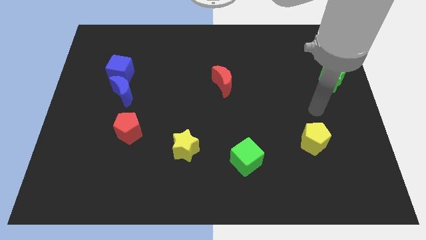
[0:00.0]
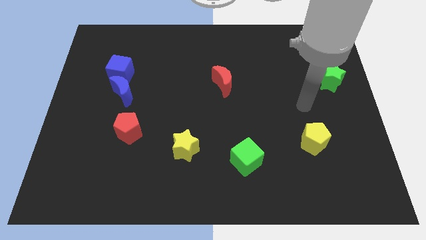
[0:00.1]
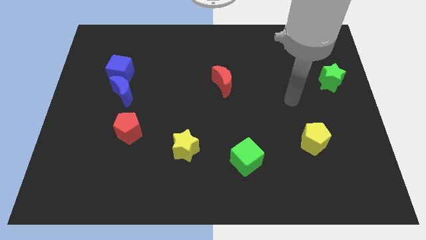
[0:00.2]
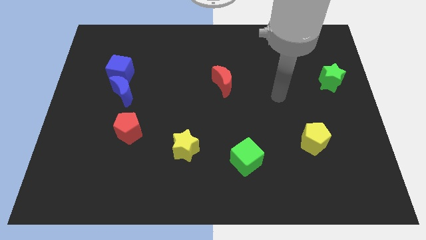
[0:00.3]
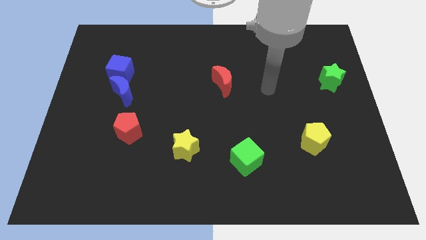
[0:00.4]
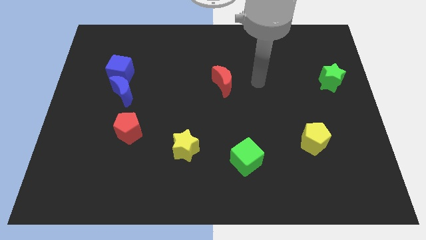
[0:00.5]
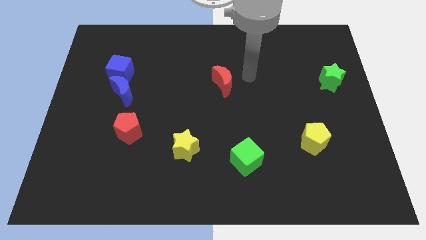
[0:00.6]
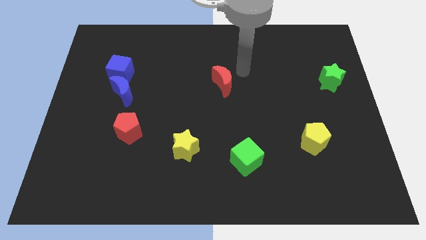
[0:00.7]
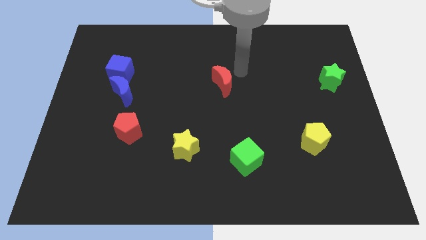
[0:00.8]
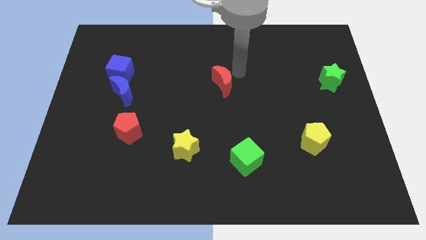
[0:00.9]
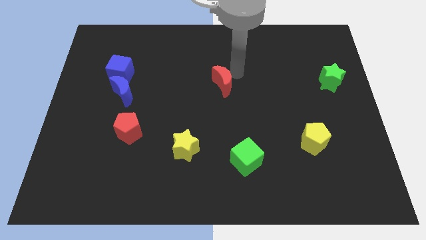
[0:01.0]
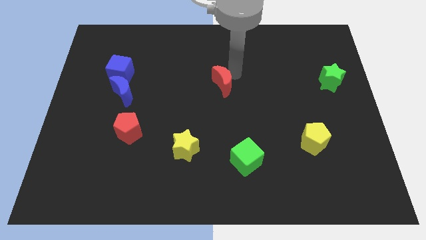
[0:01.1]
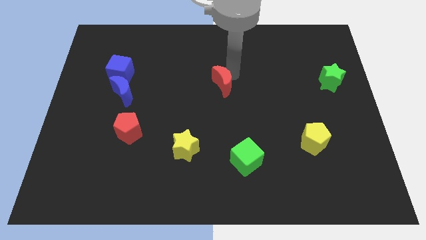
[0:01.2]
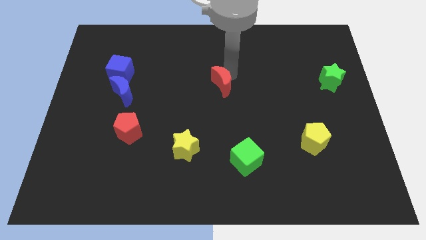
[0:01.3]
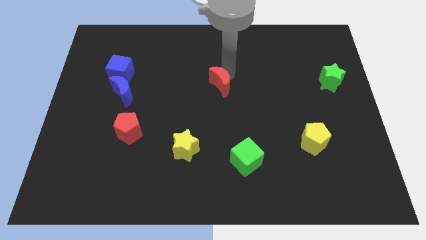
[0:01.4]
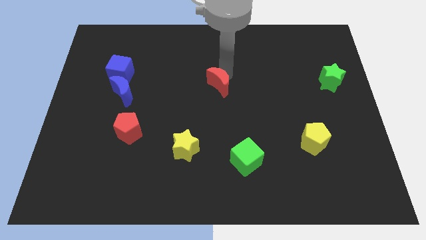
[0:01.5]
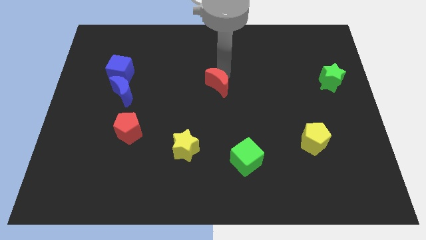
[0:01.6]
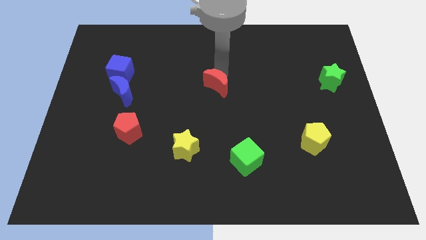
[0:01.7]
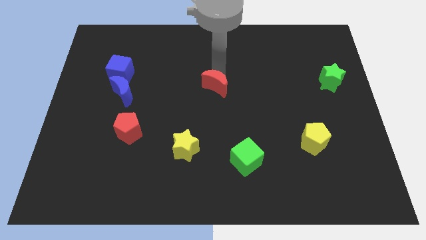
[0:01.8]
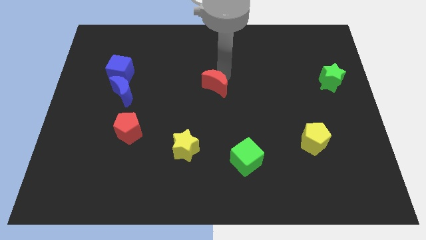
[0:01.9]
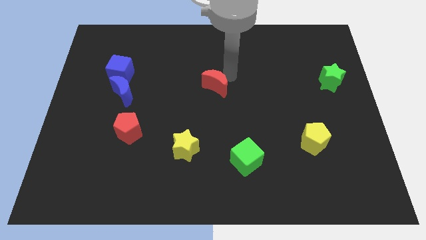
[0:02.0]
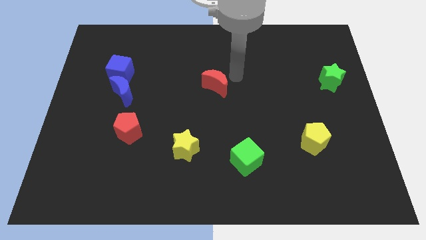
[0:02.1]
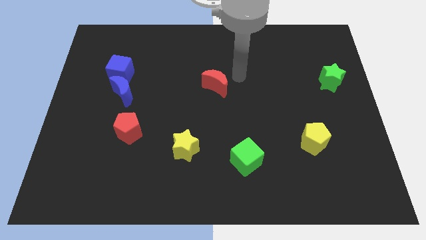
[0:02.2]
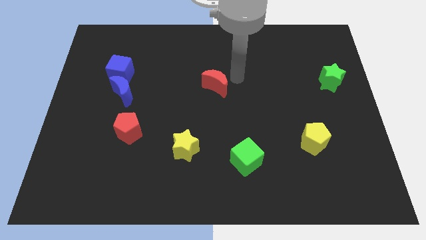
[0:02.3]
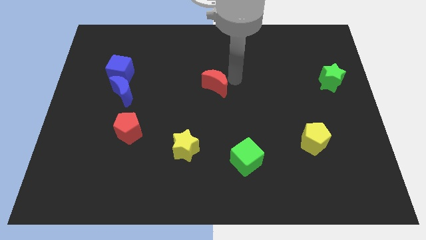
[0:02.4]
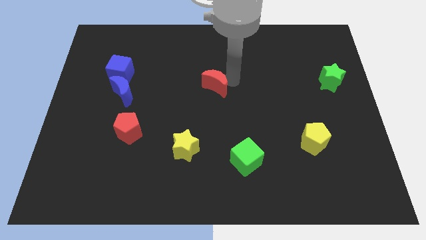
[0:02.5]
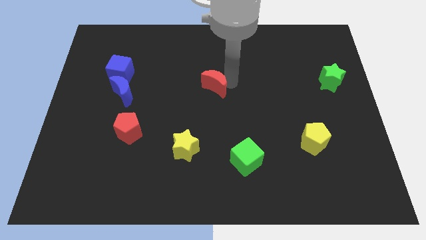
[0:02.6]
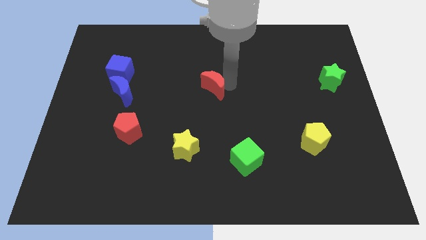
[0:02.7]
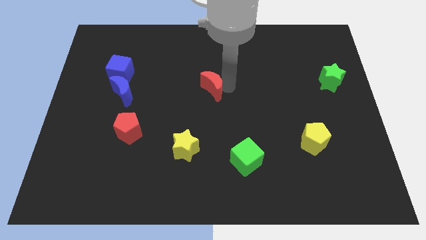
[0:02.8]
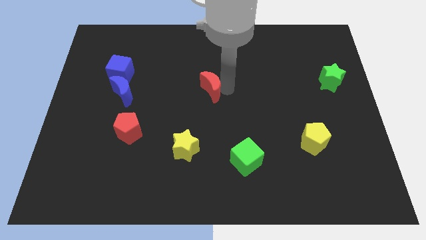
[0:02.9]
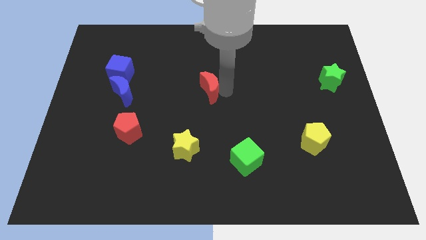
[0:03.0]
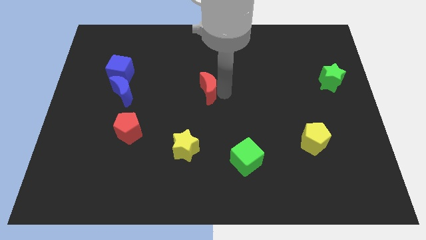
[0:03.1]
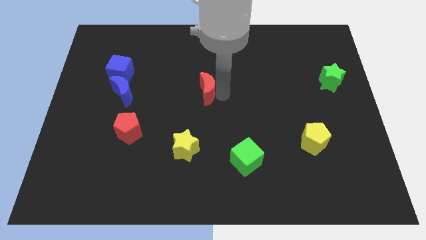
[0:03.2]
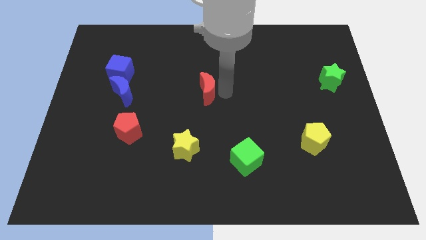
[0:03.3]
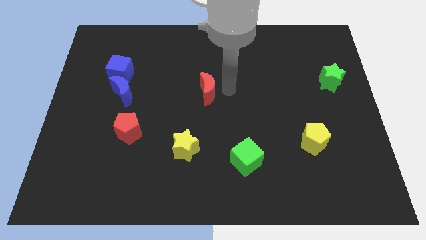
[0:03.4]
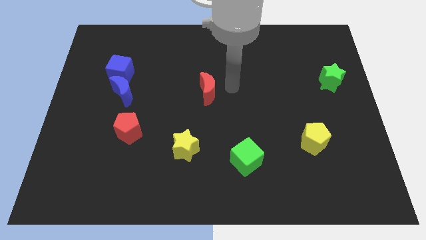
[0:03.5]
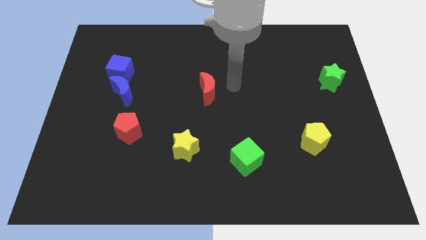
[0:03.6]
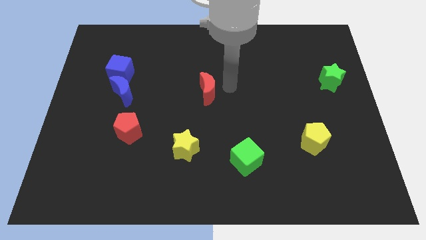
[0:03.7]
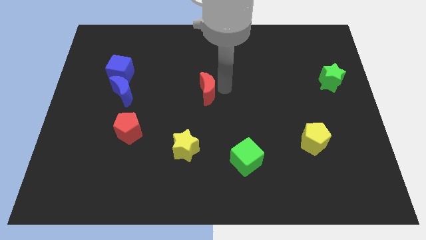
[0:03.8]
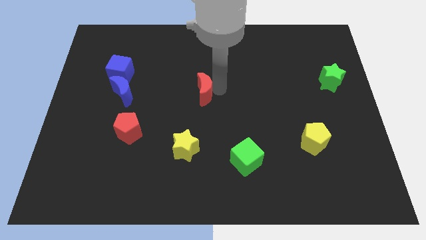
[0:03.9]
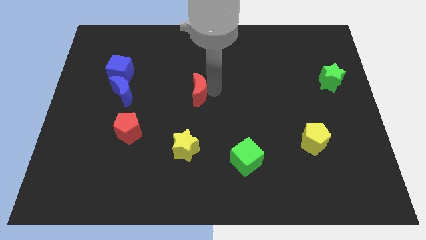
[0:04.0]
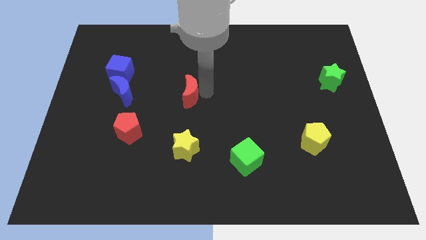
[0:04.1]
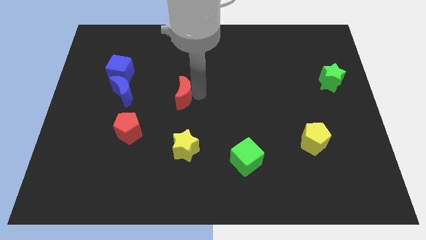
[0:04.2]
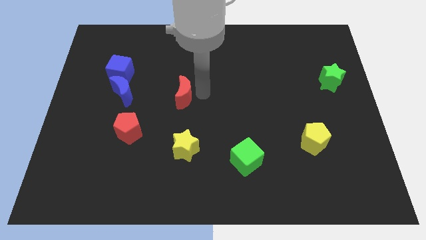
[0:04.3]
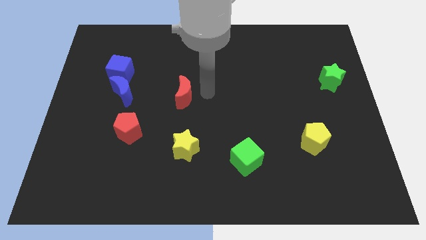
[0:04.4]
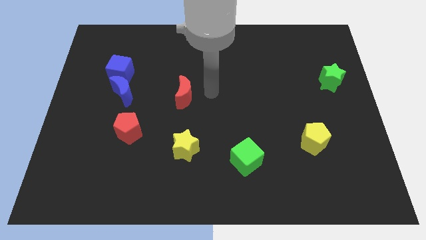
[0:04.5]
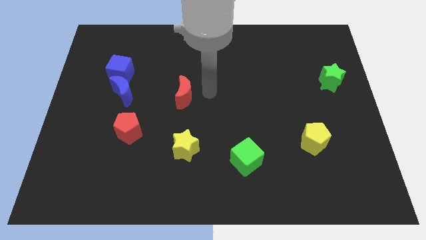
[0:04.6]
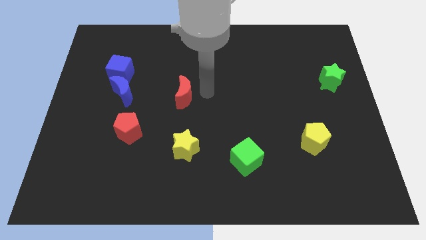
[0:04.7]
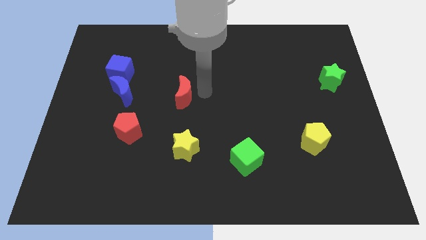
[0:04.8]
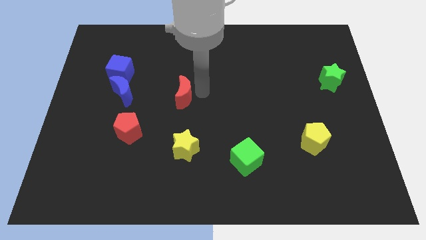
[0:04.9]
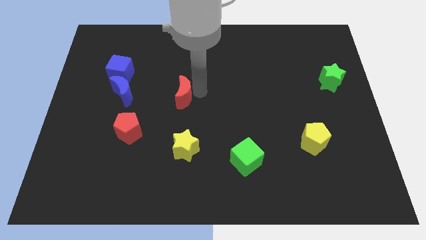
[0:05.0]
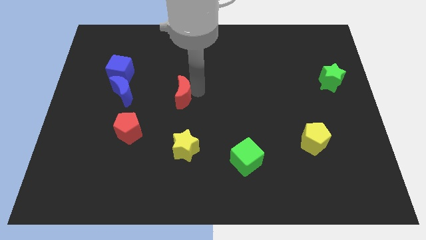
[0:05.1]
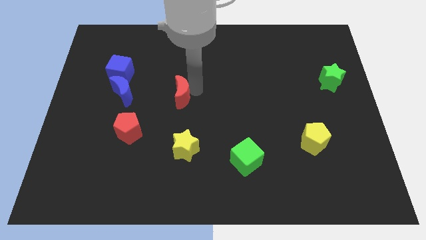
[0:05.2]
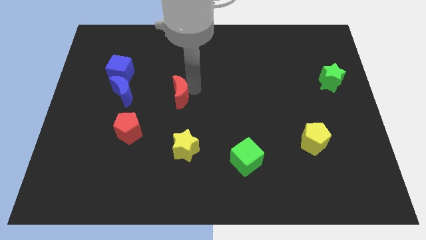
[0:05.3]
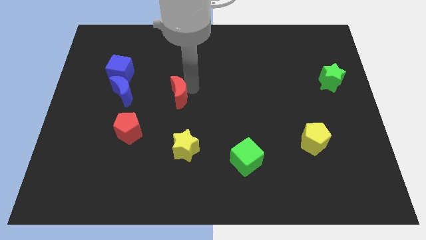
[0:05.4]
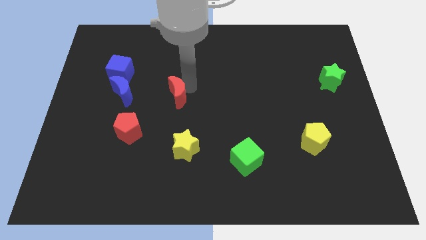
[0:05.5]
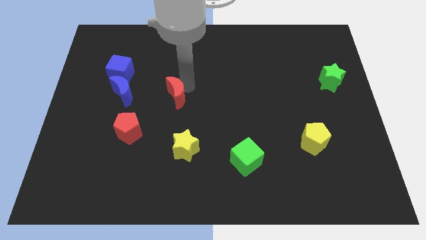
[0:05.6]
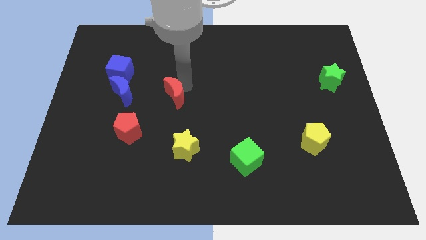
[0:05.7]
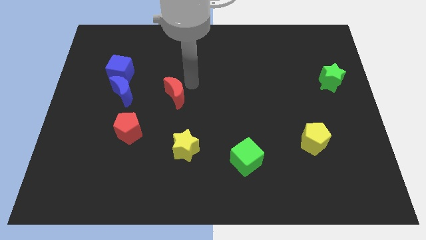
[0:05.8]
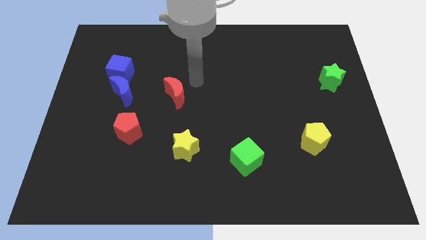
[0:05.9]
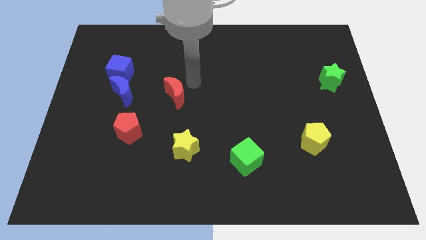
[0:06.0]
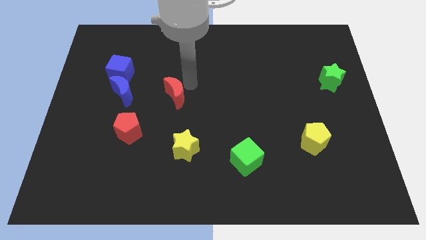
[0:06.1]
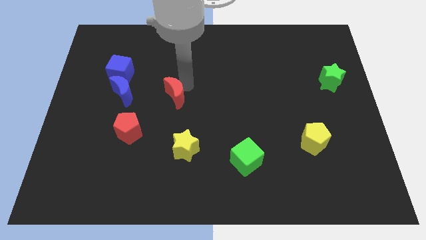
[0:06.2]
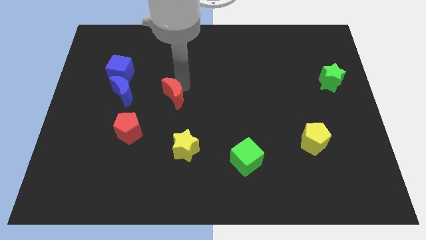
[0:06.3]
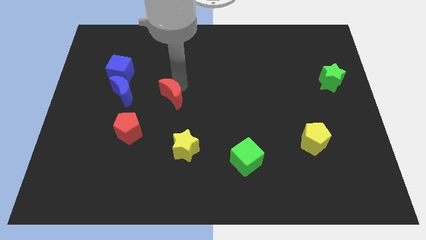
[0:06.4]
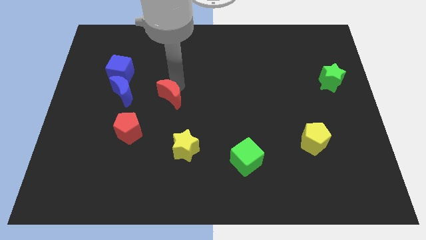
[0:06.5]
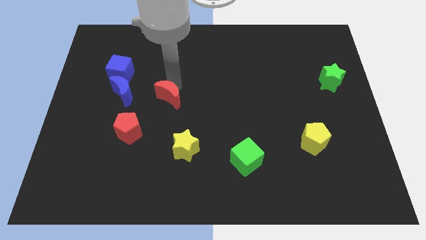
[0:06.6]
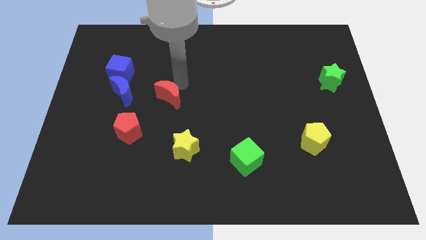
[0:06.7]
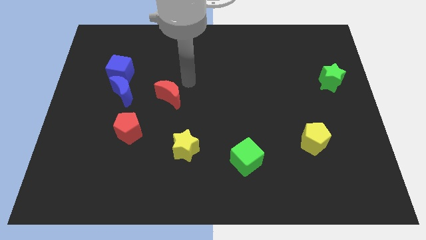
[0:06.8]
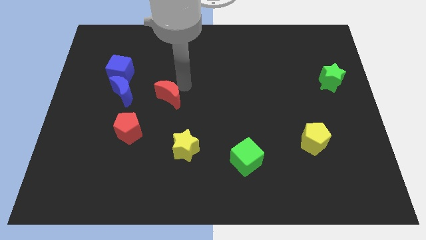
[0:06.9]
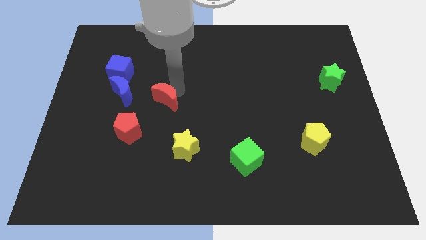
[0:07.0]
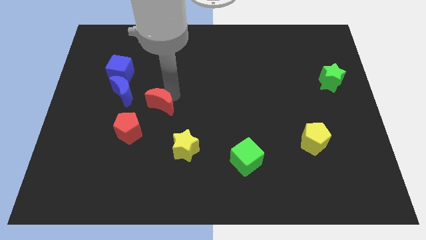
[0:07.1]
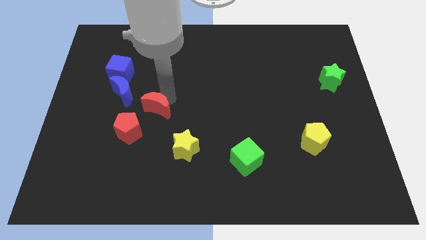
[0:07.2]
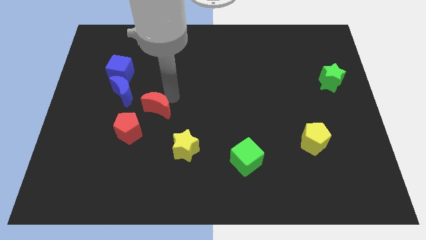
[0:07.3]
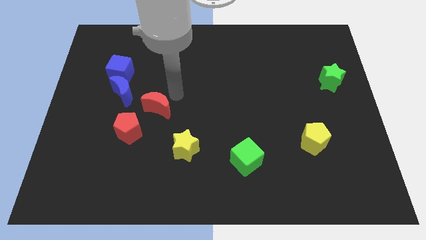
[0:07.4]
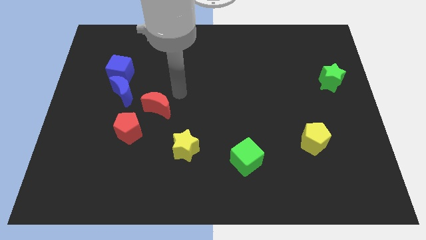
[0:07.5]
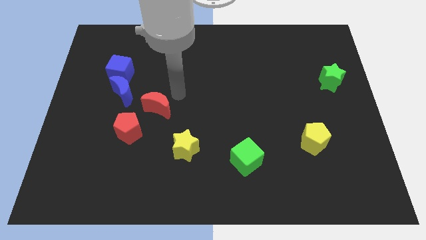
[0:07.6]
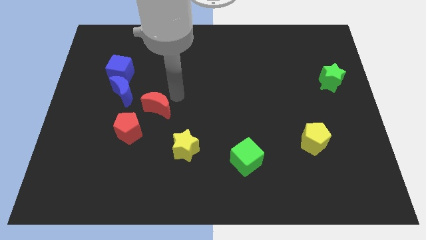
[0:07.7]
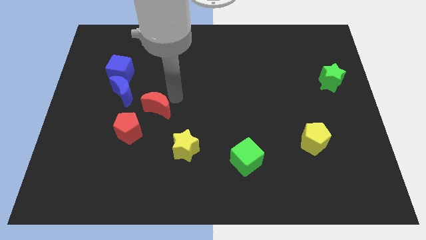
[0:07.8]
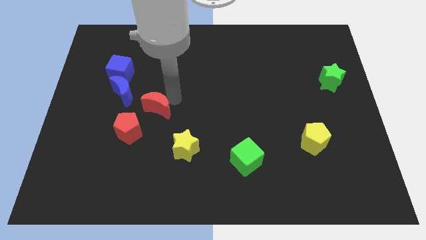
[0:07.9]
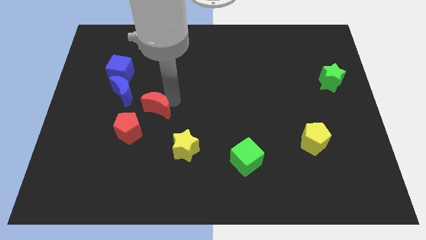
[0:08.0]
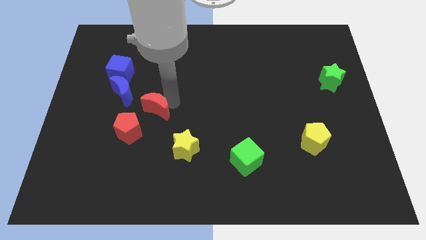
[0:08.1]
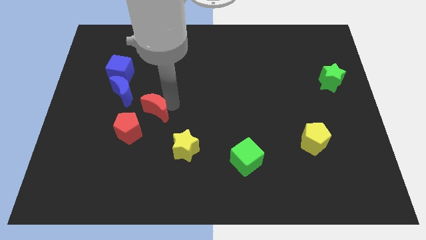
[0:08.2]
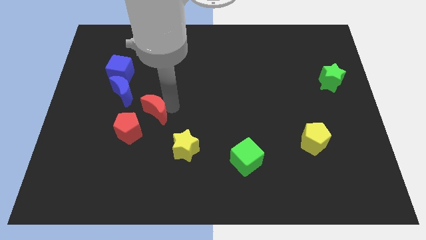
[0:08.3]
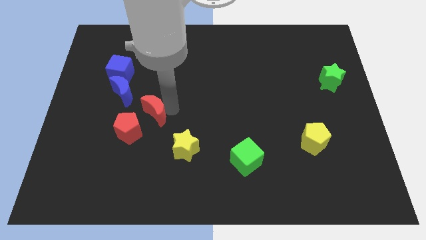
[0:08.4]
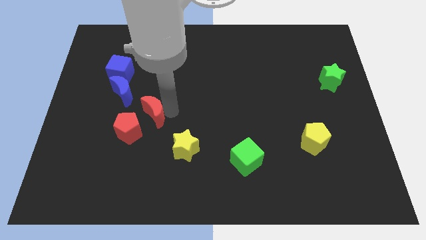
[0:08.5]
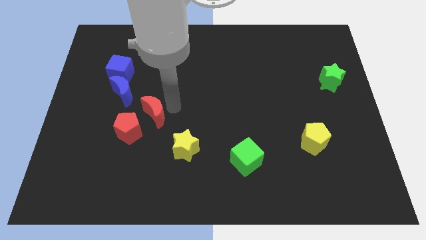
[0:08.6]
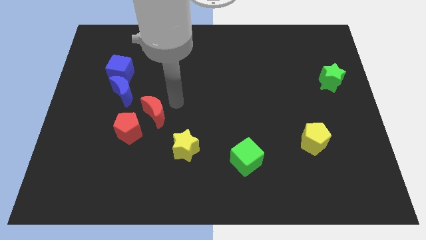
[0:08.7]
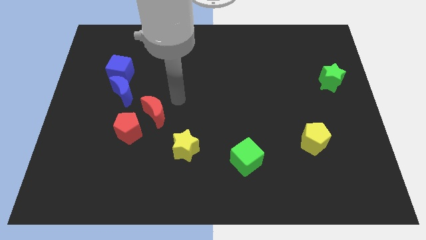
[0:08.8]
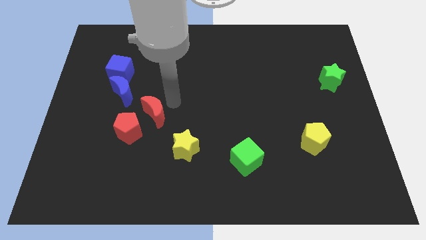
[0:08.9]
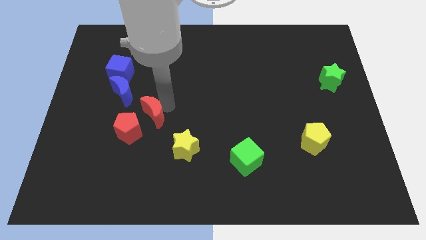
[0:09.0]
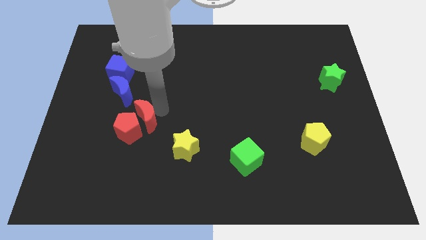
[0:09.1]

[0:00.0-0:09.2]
slide the red moon to the red pentagon
